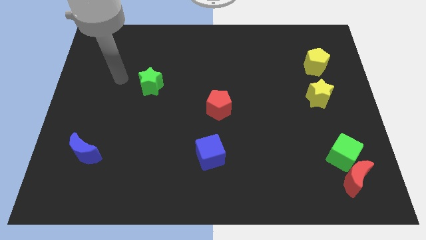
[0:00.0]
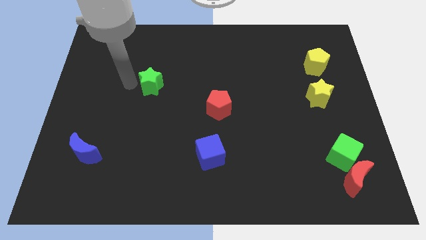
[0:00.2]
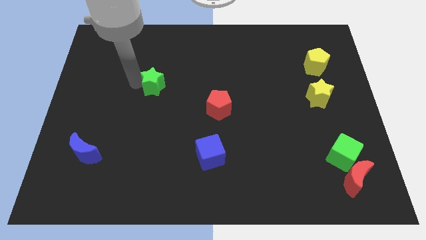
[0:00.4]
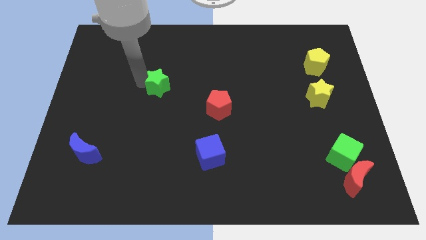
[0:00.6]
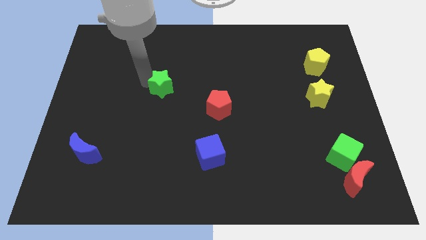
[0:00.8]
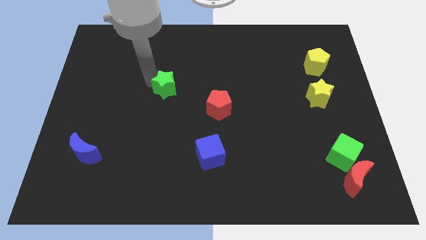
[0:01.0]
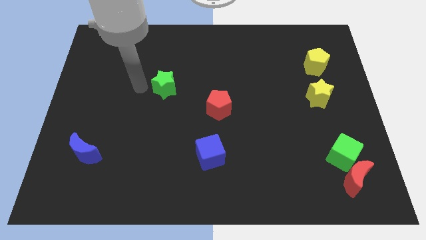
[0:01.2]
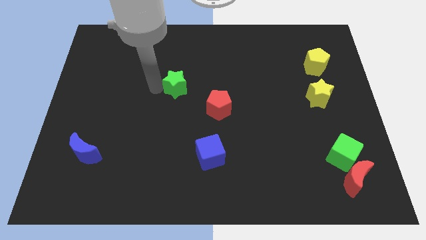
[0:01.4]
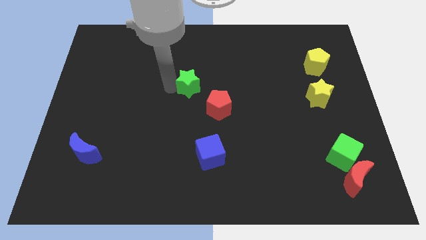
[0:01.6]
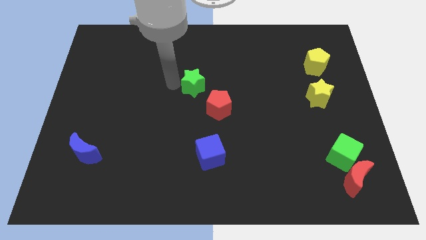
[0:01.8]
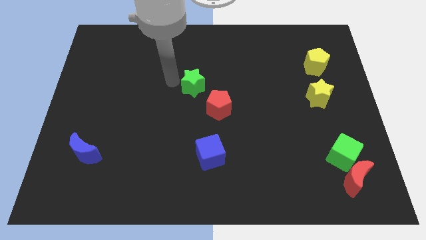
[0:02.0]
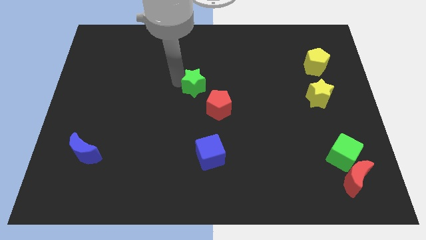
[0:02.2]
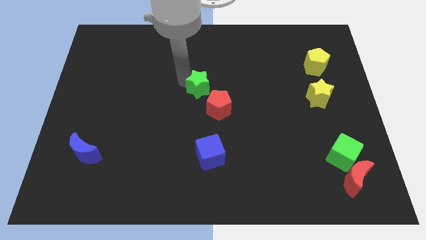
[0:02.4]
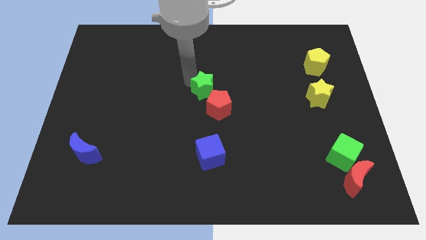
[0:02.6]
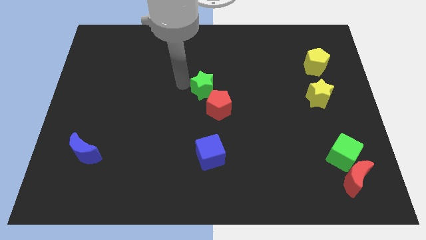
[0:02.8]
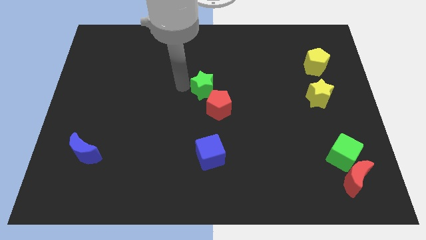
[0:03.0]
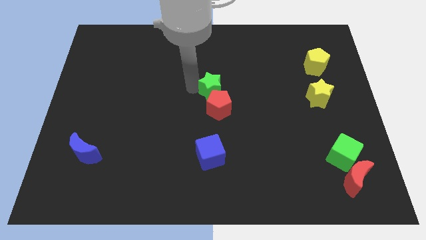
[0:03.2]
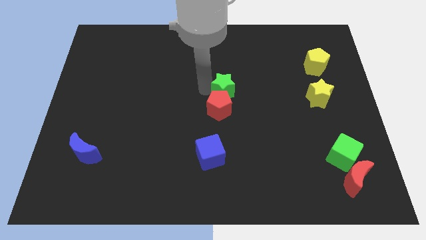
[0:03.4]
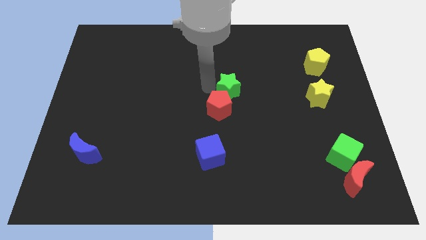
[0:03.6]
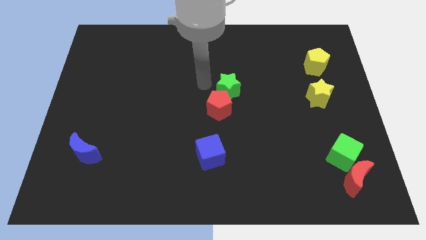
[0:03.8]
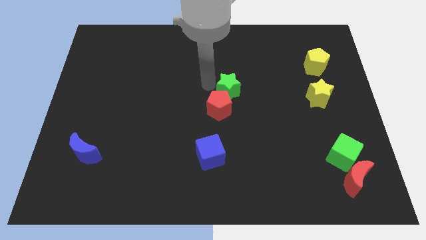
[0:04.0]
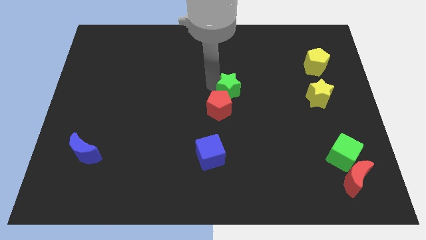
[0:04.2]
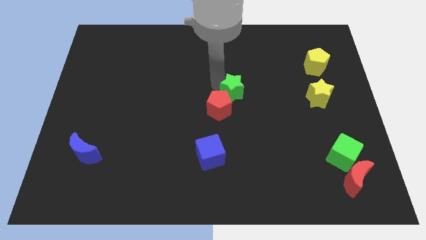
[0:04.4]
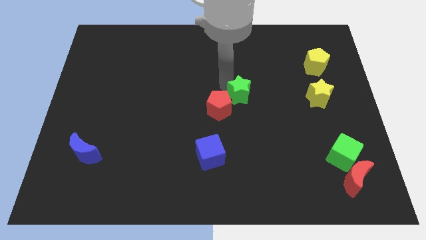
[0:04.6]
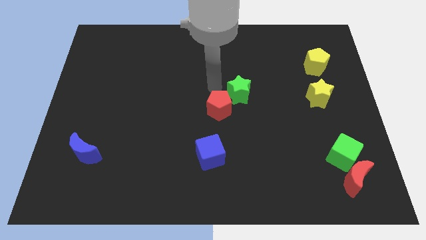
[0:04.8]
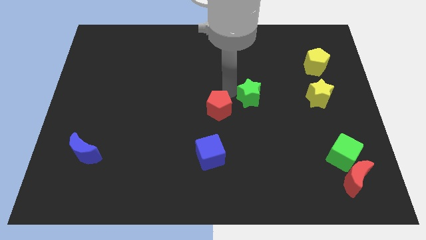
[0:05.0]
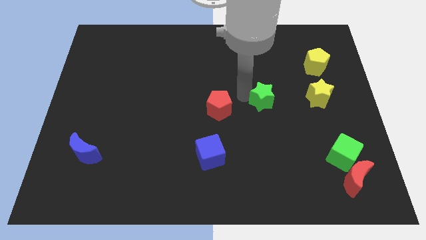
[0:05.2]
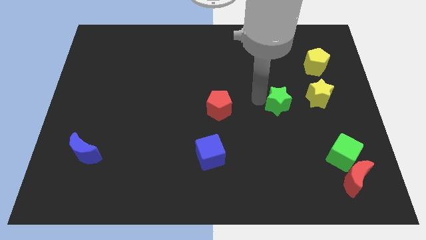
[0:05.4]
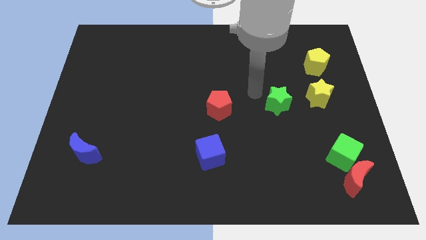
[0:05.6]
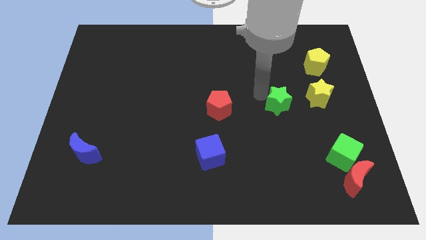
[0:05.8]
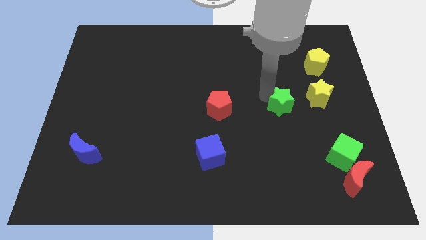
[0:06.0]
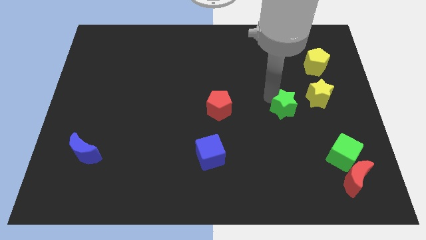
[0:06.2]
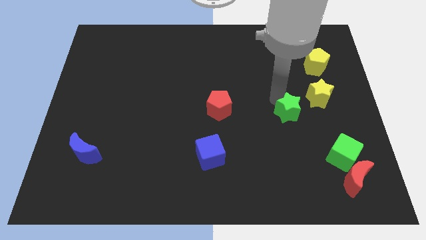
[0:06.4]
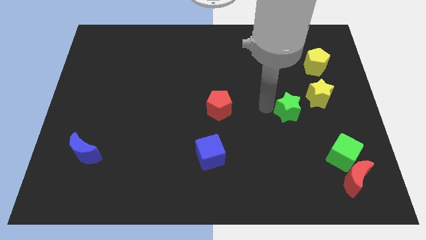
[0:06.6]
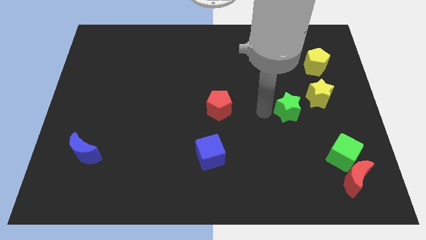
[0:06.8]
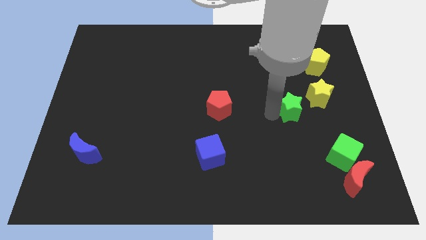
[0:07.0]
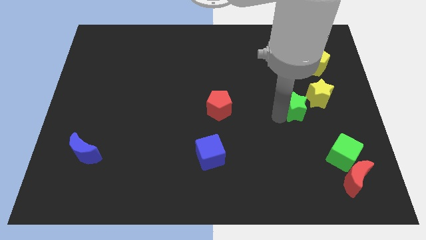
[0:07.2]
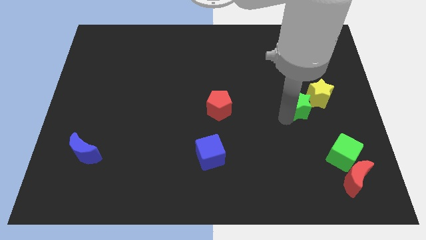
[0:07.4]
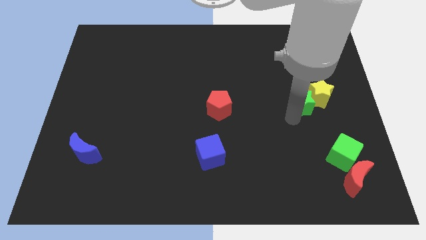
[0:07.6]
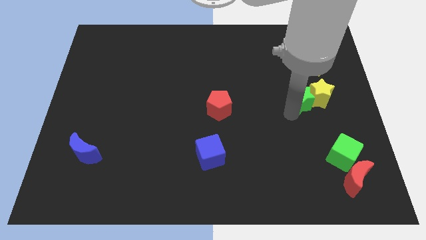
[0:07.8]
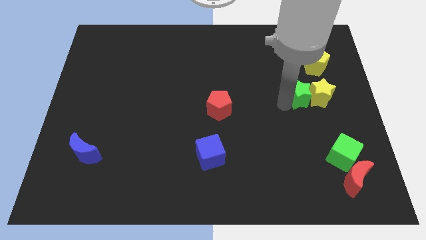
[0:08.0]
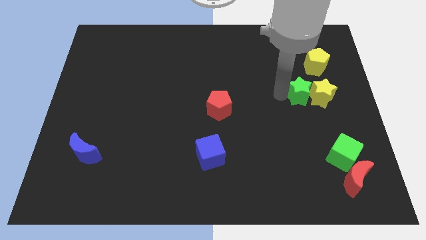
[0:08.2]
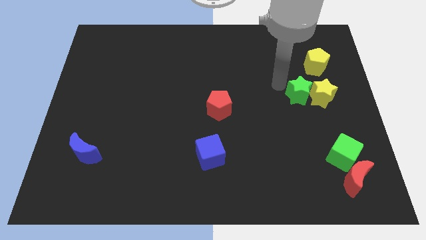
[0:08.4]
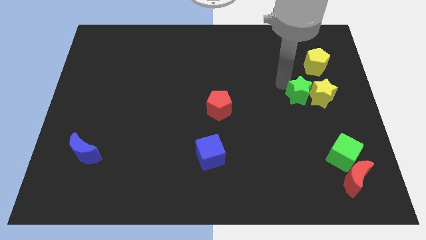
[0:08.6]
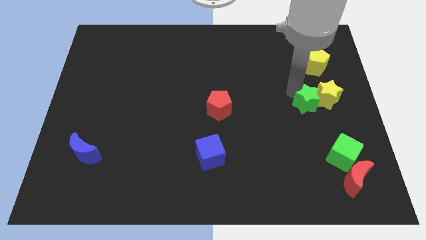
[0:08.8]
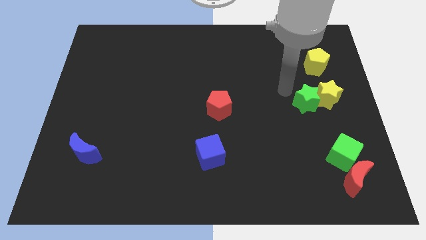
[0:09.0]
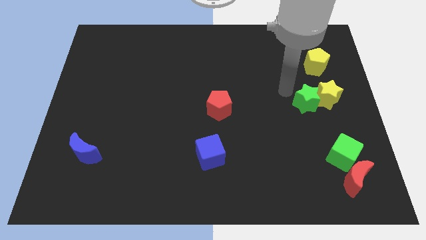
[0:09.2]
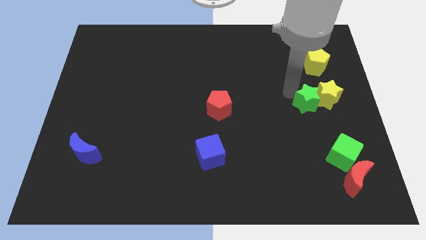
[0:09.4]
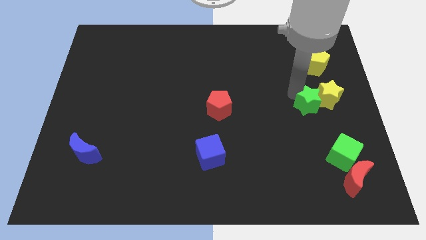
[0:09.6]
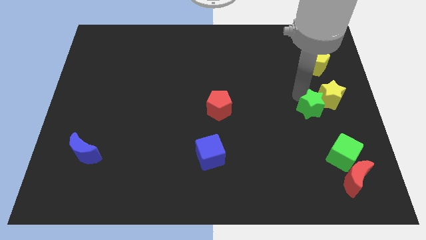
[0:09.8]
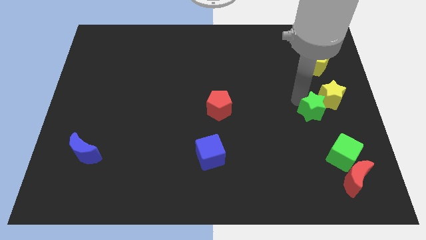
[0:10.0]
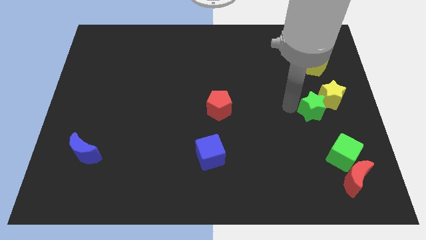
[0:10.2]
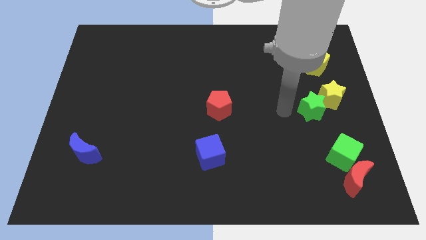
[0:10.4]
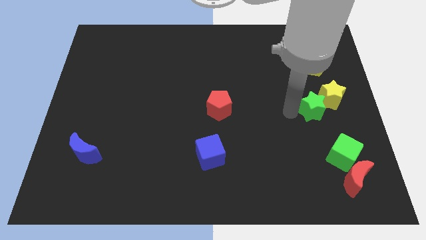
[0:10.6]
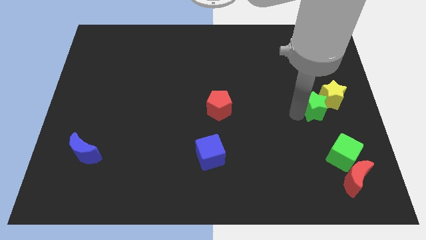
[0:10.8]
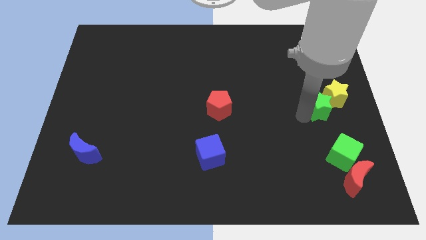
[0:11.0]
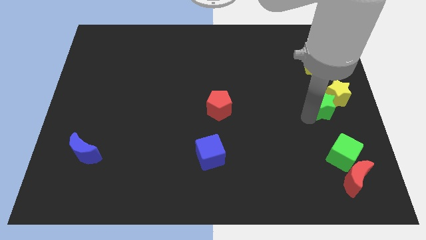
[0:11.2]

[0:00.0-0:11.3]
slide the green star to the right side

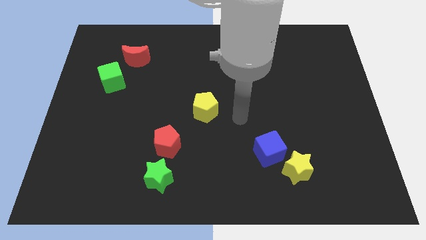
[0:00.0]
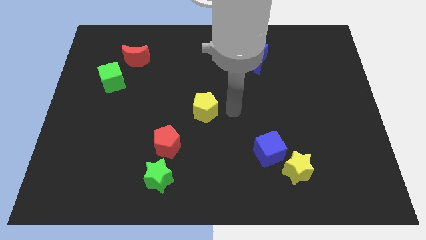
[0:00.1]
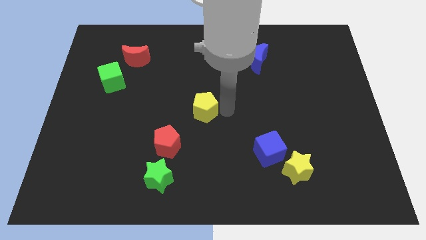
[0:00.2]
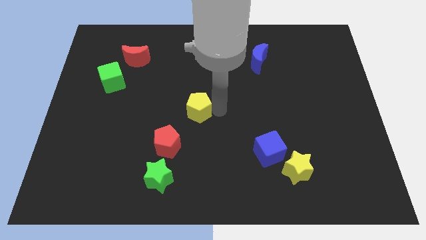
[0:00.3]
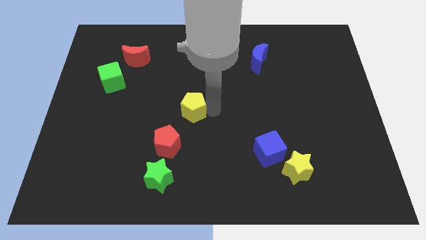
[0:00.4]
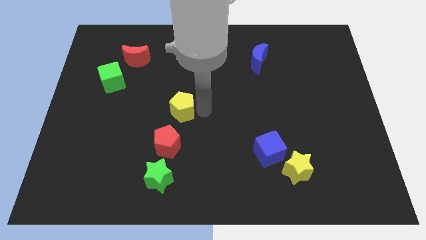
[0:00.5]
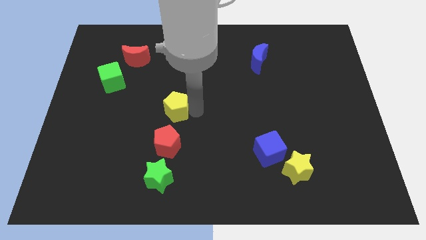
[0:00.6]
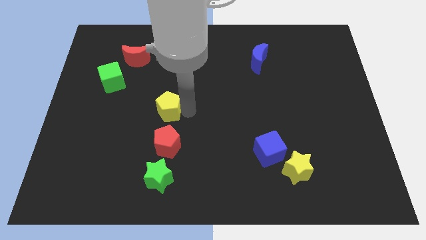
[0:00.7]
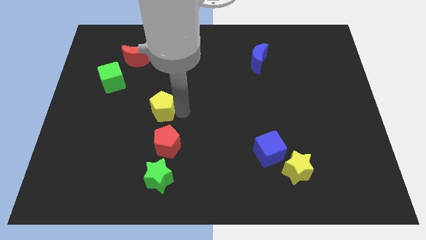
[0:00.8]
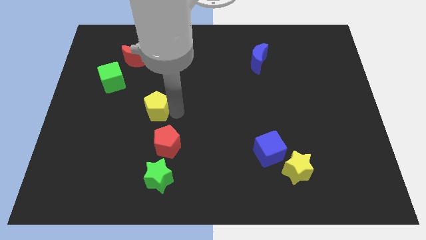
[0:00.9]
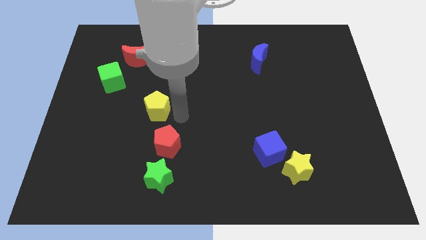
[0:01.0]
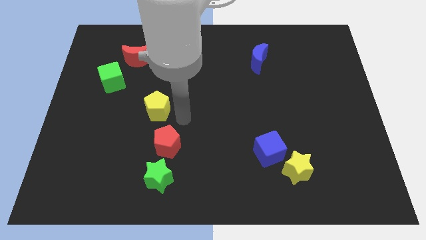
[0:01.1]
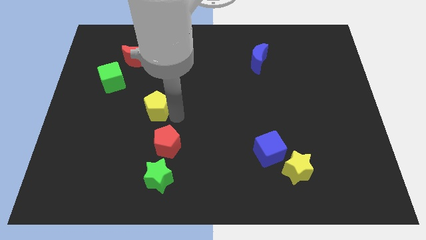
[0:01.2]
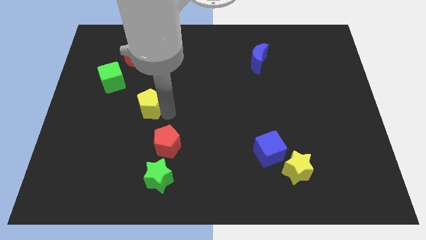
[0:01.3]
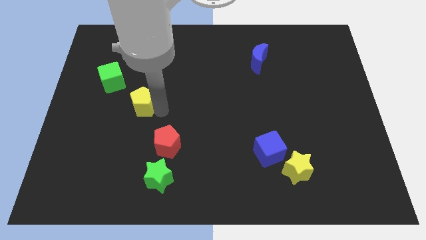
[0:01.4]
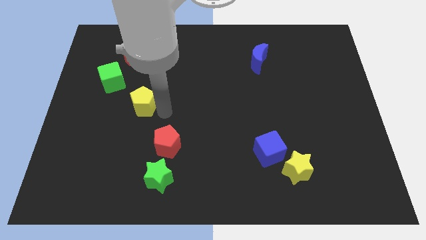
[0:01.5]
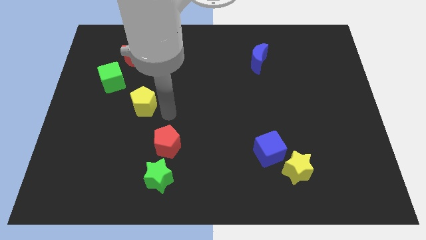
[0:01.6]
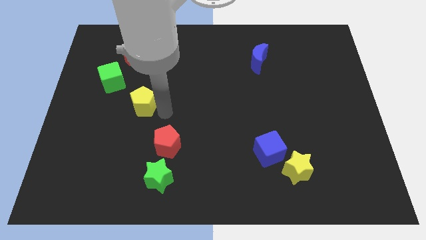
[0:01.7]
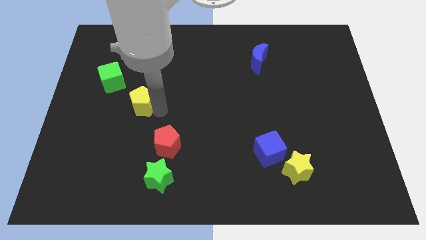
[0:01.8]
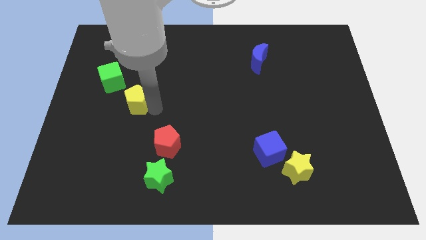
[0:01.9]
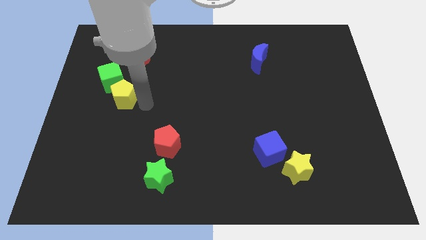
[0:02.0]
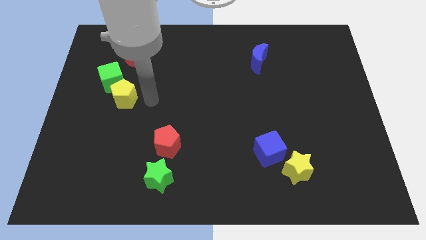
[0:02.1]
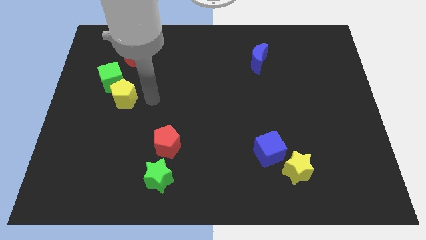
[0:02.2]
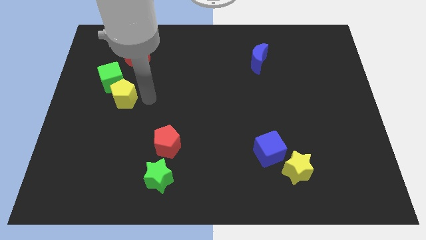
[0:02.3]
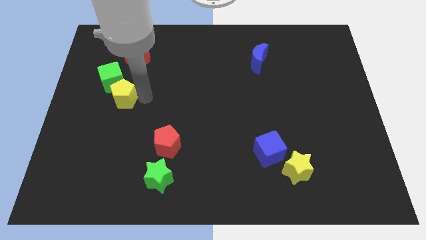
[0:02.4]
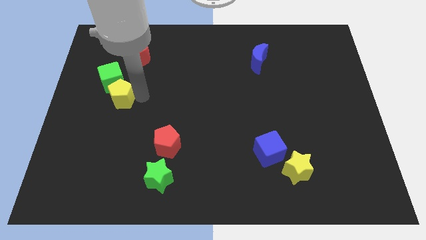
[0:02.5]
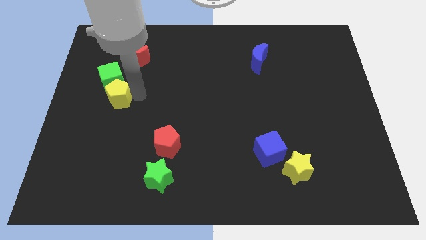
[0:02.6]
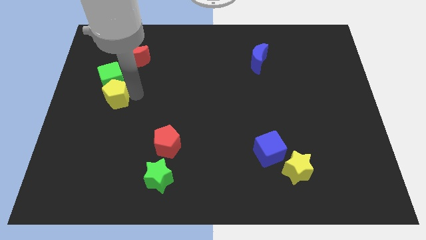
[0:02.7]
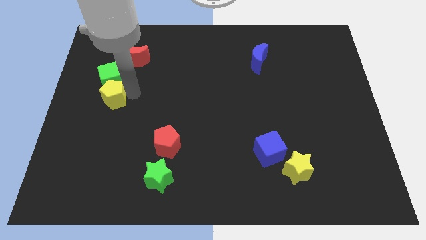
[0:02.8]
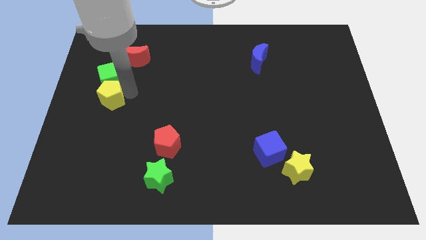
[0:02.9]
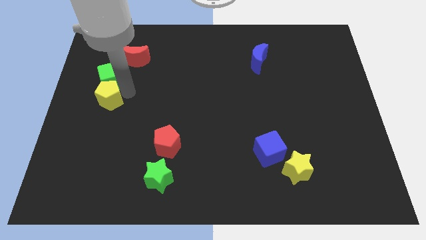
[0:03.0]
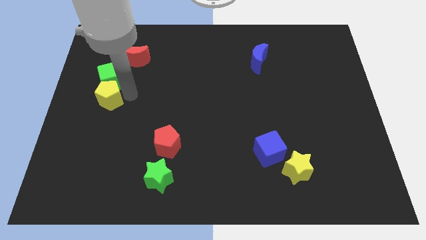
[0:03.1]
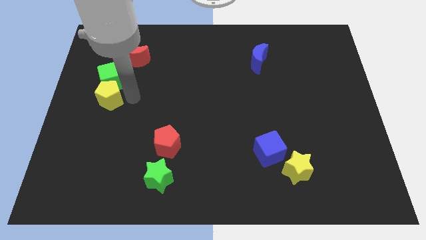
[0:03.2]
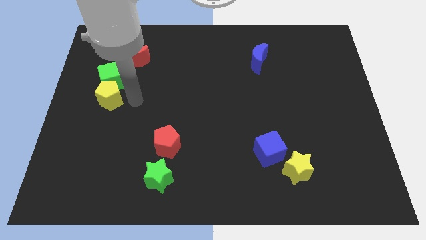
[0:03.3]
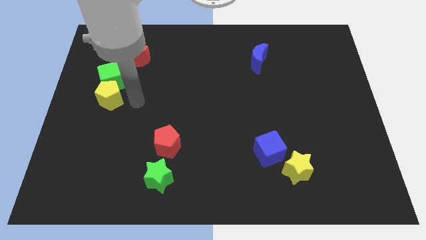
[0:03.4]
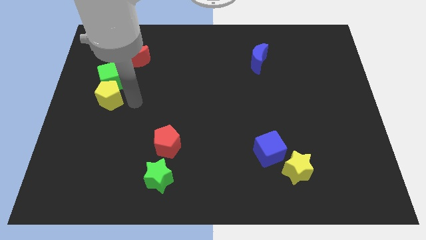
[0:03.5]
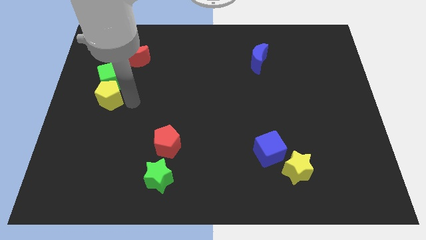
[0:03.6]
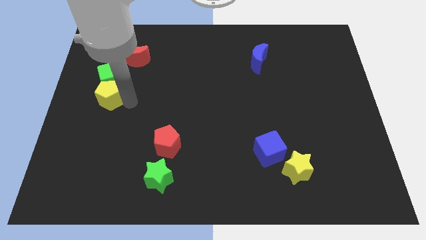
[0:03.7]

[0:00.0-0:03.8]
put the yellow pentagon to the left side
